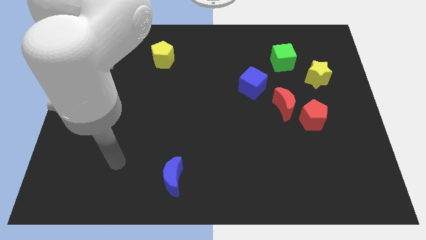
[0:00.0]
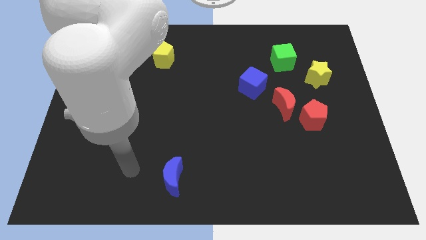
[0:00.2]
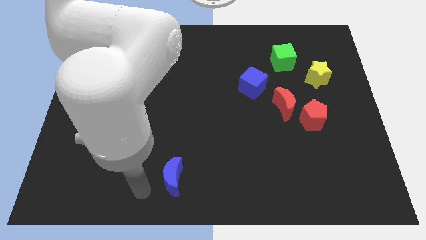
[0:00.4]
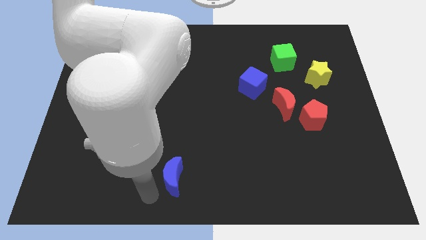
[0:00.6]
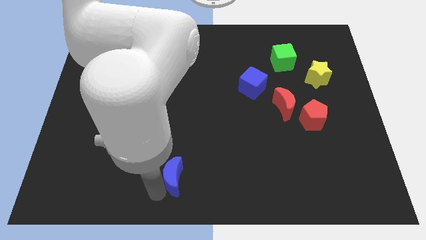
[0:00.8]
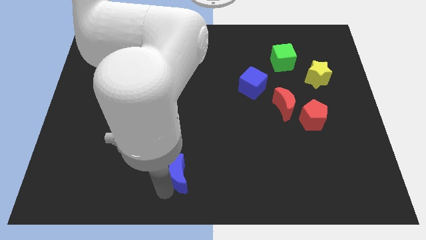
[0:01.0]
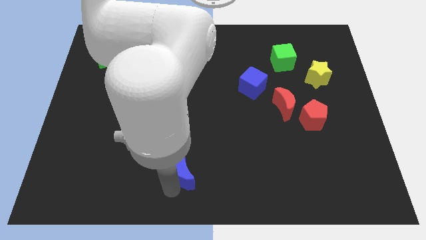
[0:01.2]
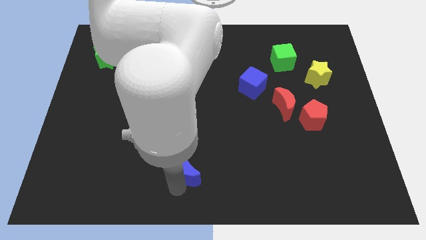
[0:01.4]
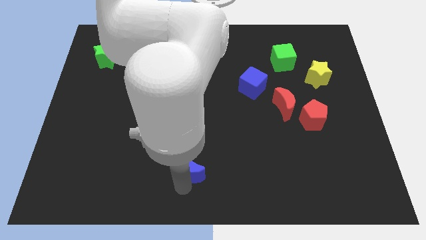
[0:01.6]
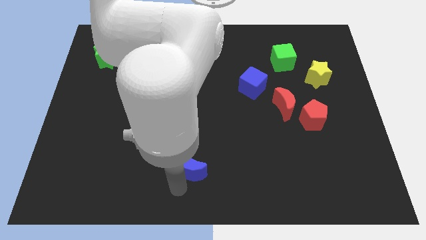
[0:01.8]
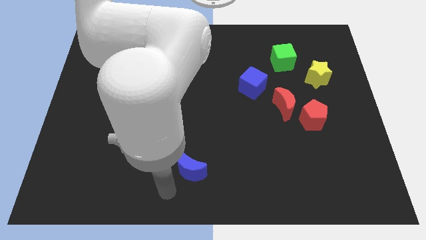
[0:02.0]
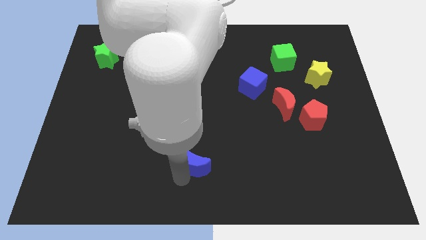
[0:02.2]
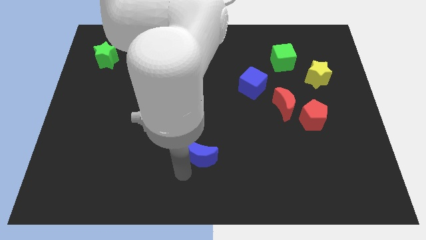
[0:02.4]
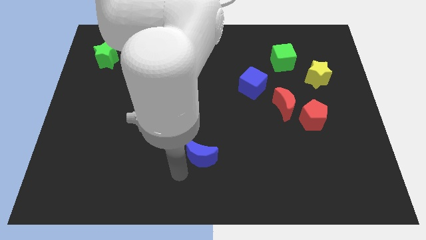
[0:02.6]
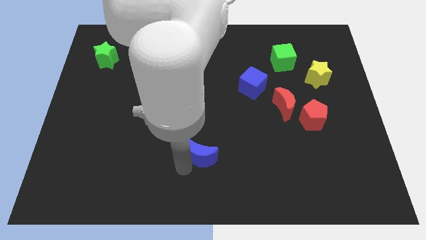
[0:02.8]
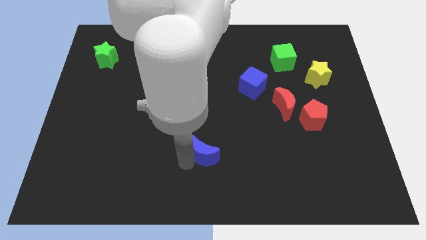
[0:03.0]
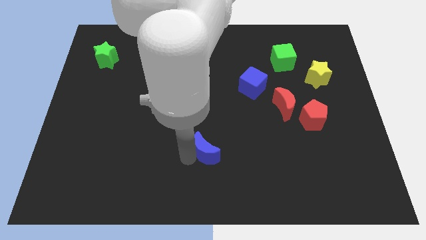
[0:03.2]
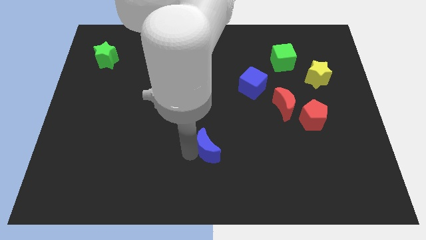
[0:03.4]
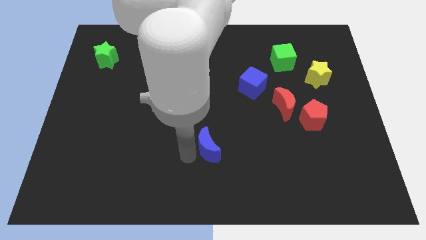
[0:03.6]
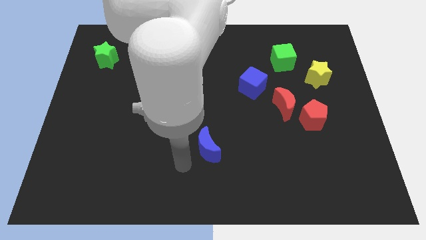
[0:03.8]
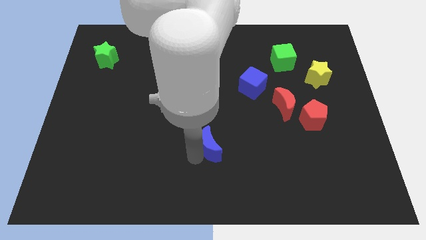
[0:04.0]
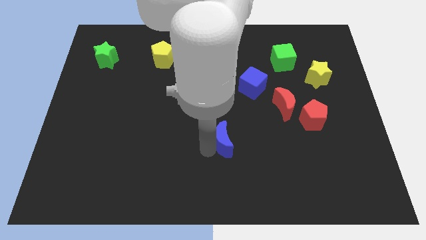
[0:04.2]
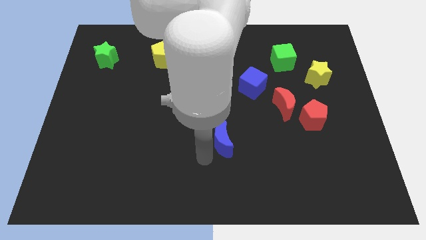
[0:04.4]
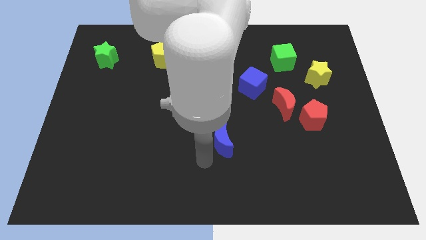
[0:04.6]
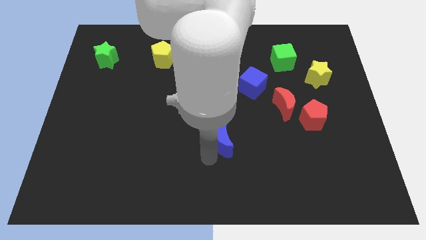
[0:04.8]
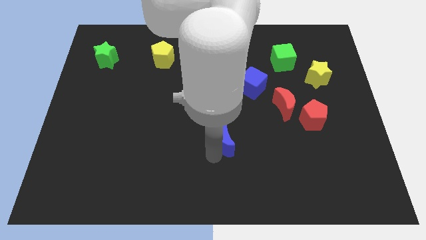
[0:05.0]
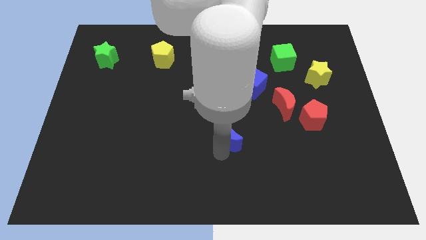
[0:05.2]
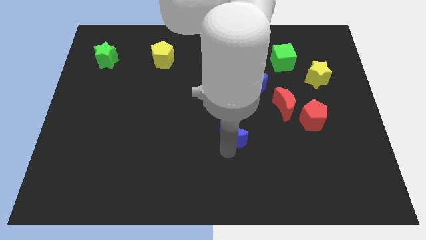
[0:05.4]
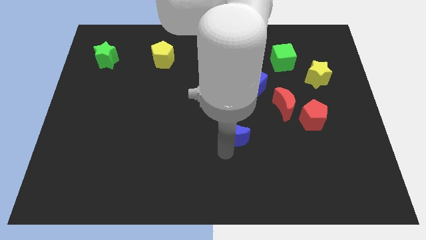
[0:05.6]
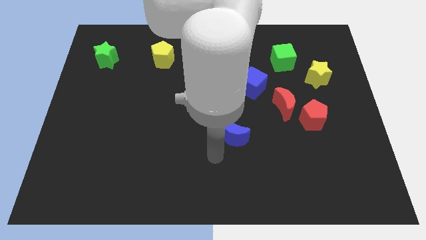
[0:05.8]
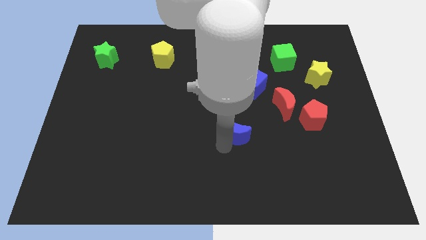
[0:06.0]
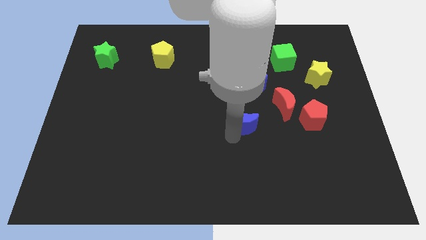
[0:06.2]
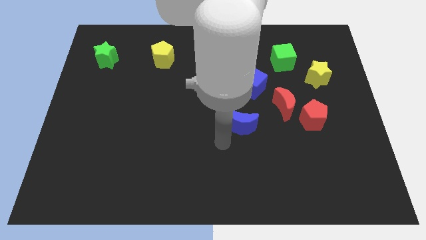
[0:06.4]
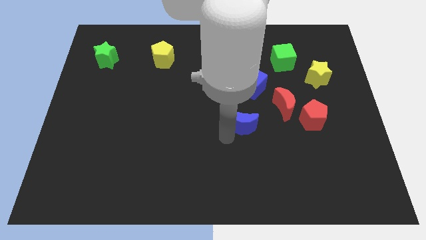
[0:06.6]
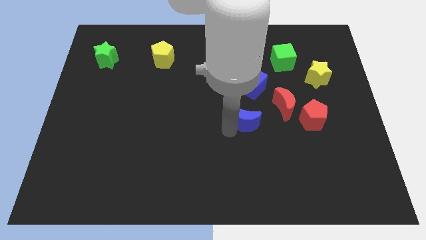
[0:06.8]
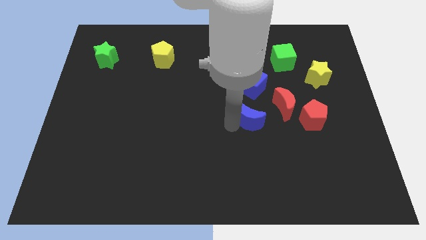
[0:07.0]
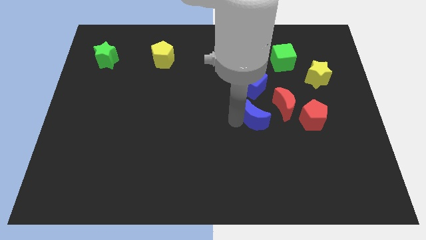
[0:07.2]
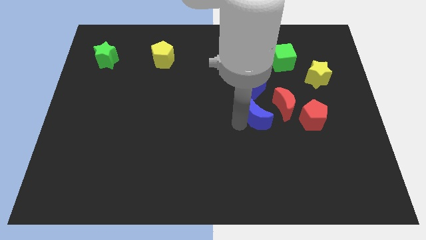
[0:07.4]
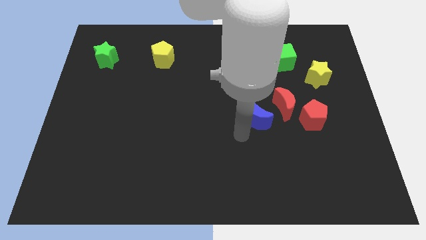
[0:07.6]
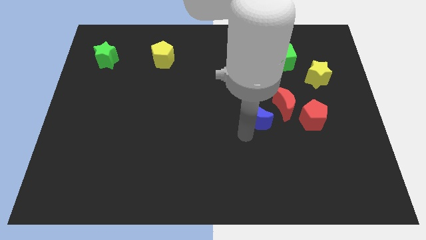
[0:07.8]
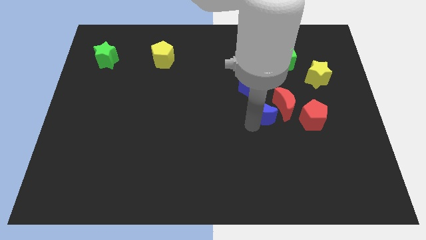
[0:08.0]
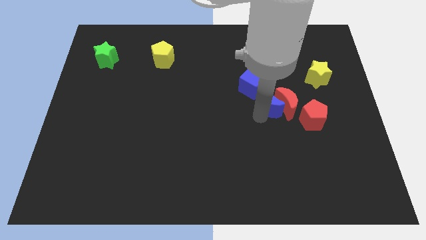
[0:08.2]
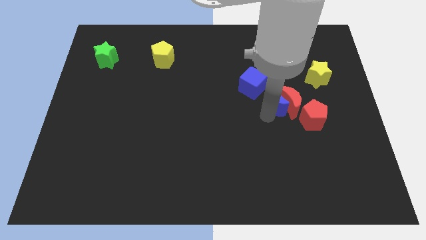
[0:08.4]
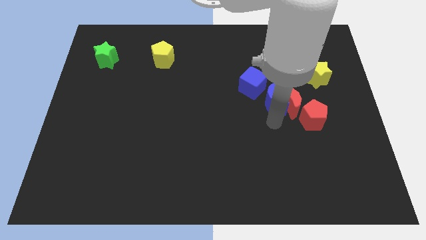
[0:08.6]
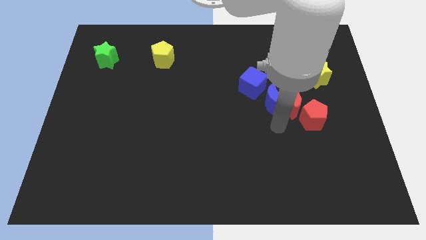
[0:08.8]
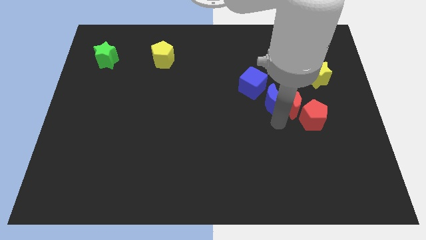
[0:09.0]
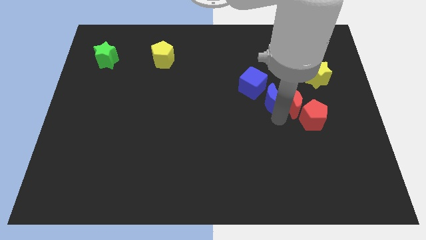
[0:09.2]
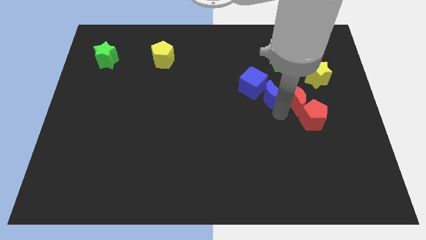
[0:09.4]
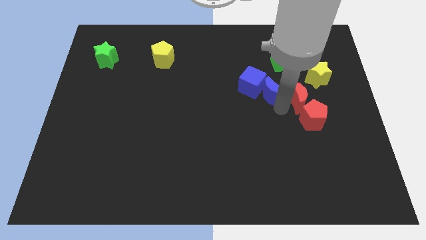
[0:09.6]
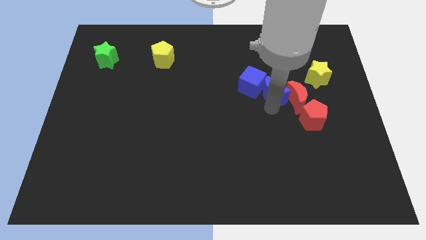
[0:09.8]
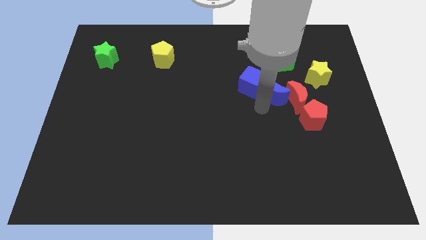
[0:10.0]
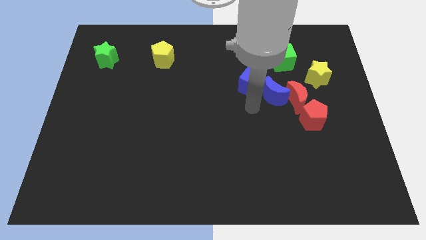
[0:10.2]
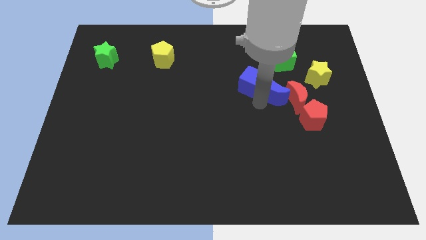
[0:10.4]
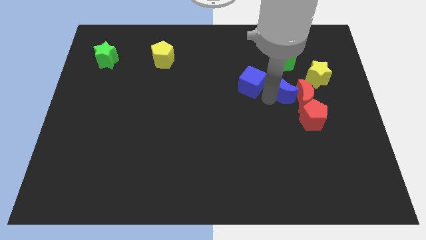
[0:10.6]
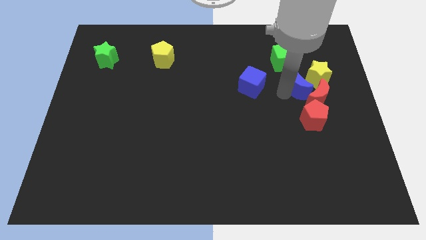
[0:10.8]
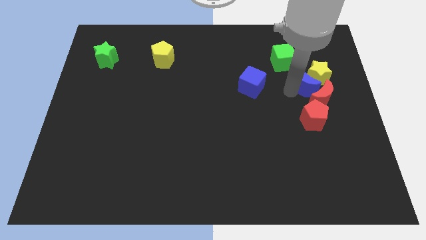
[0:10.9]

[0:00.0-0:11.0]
slide the blue moon next to the yellow star

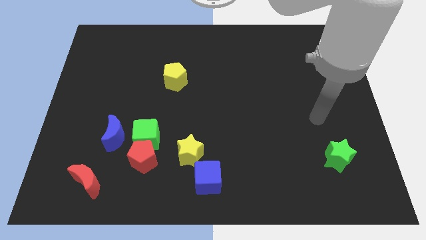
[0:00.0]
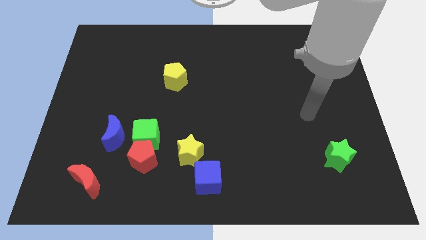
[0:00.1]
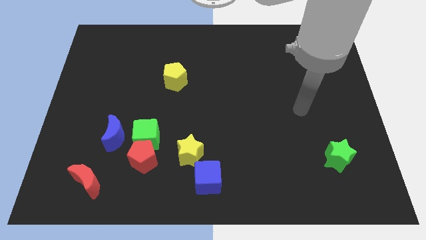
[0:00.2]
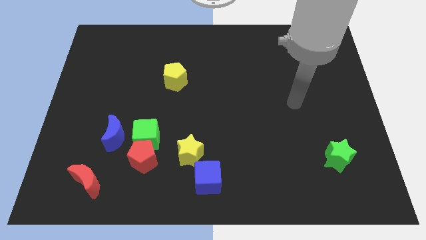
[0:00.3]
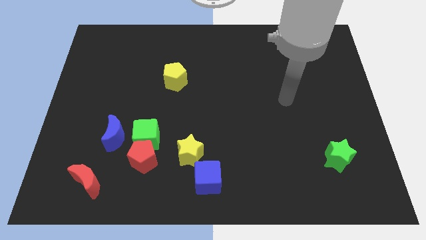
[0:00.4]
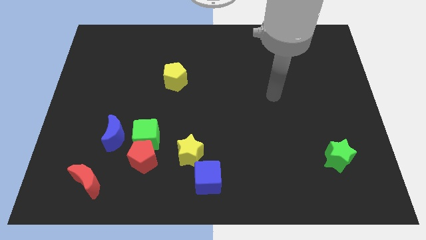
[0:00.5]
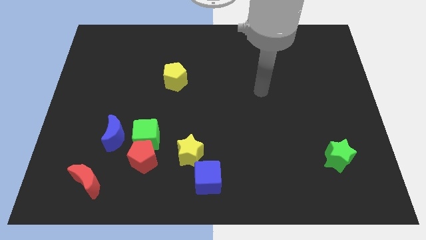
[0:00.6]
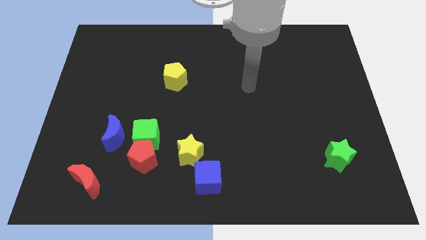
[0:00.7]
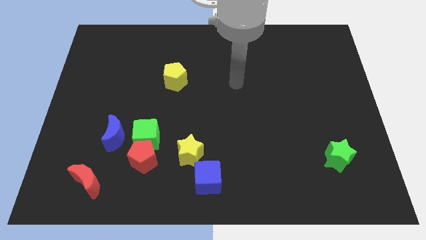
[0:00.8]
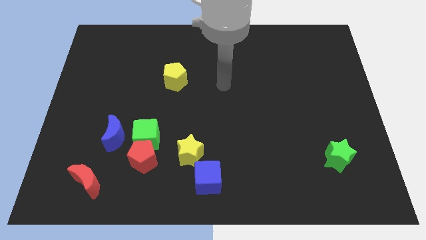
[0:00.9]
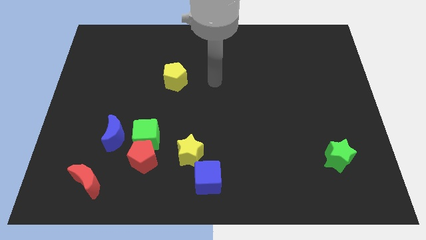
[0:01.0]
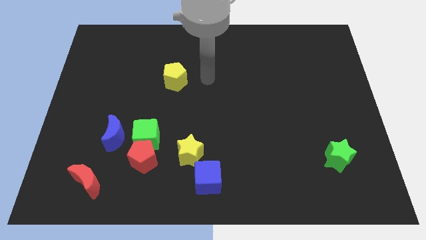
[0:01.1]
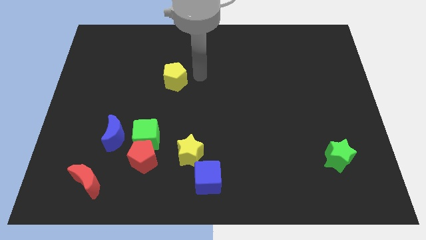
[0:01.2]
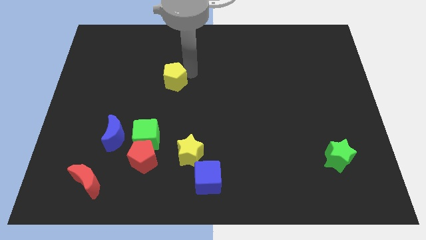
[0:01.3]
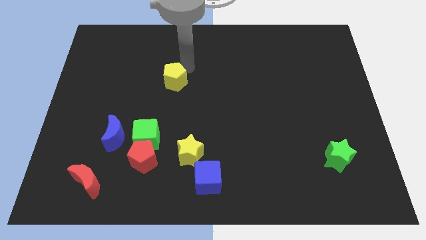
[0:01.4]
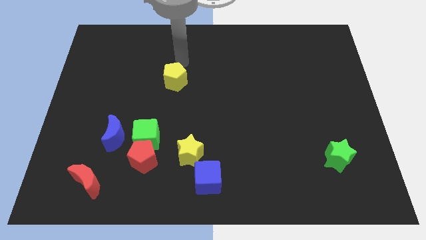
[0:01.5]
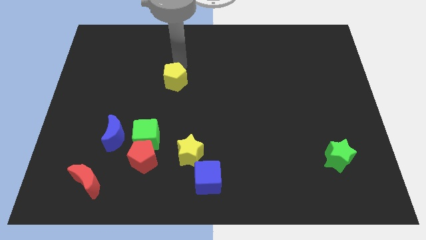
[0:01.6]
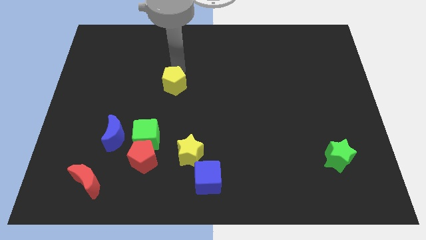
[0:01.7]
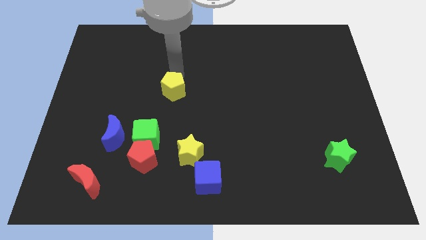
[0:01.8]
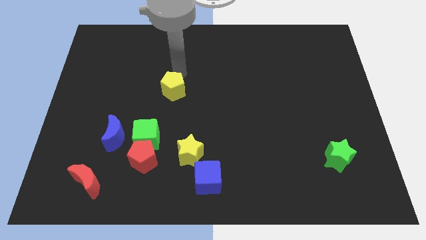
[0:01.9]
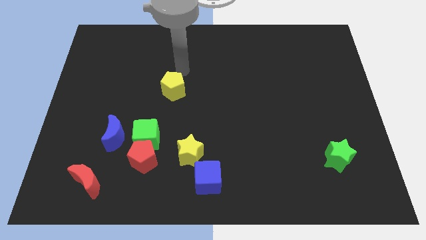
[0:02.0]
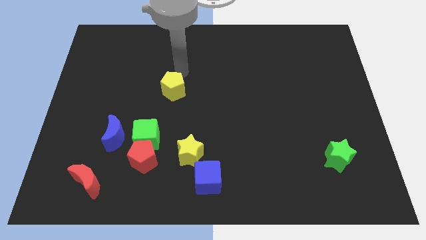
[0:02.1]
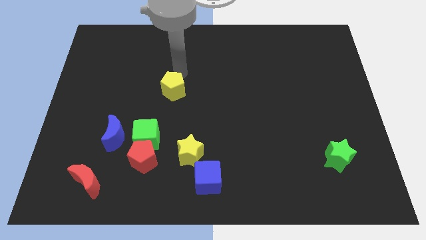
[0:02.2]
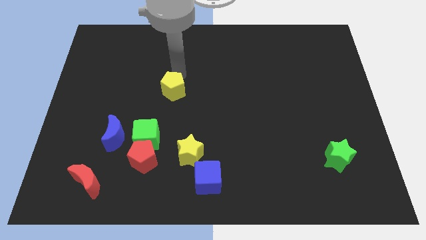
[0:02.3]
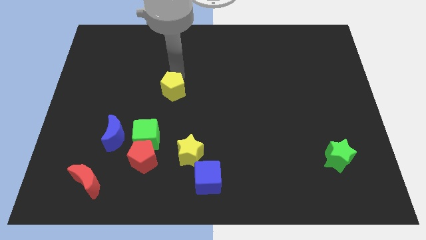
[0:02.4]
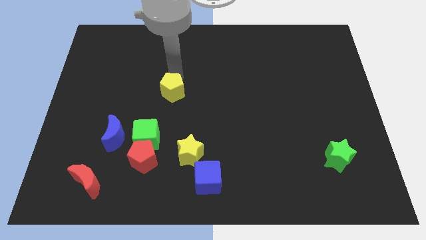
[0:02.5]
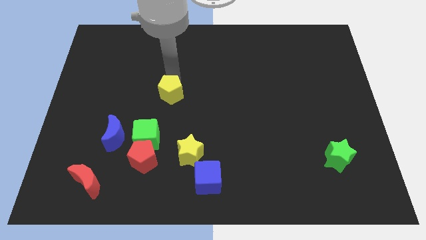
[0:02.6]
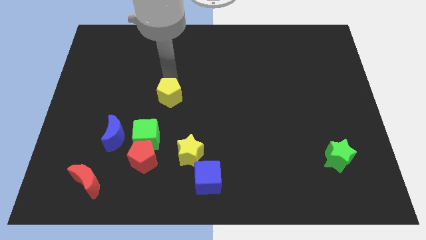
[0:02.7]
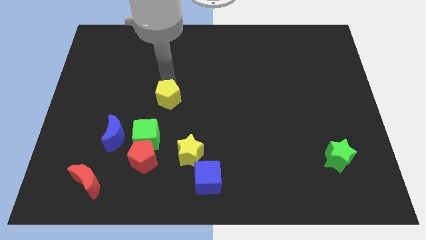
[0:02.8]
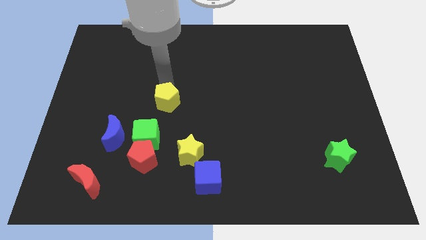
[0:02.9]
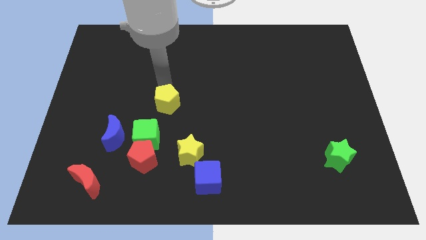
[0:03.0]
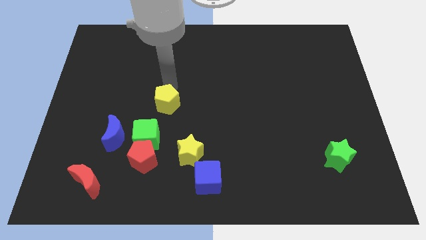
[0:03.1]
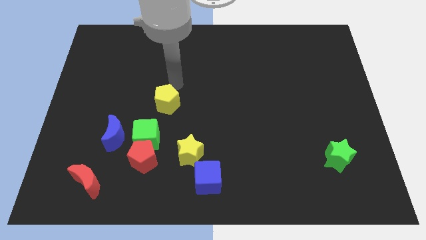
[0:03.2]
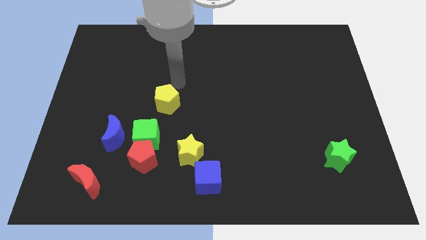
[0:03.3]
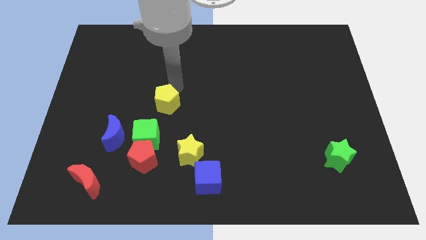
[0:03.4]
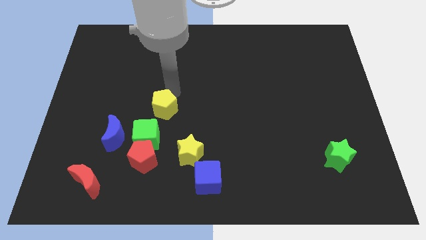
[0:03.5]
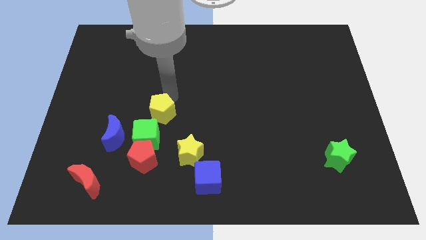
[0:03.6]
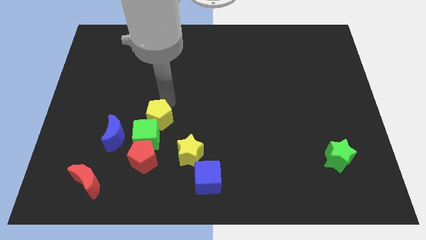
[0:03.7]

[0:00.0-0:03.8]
put the yellow pentagon next to the green cube
